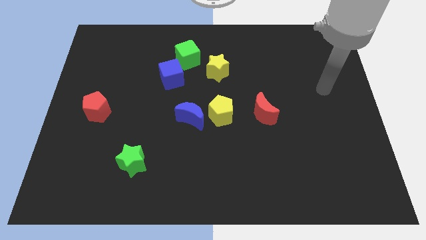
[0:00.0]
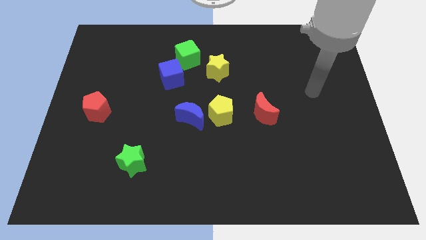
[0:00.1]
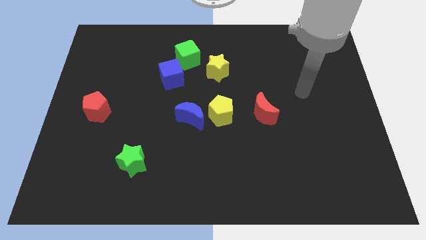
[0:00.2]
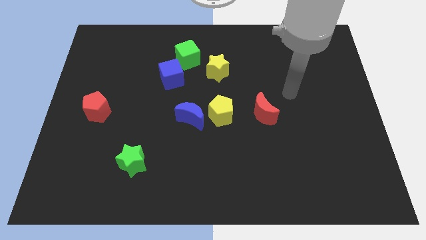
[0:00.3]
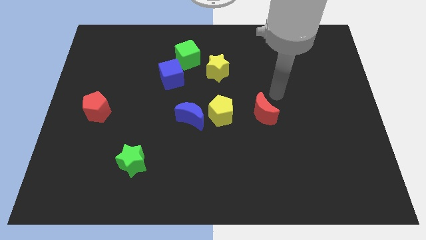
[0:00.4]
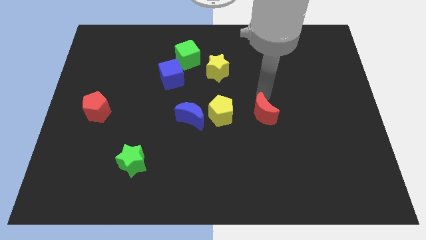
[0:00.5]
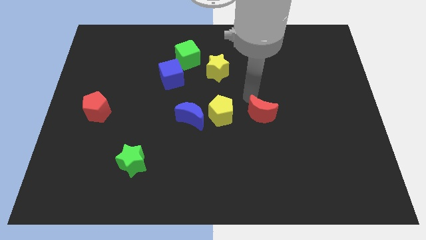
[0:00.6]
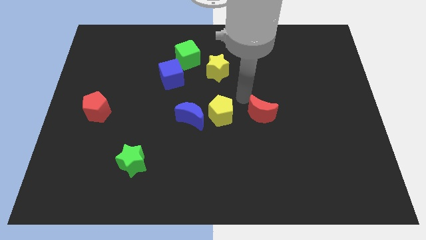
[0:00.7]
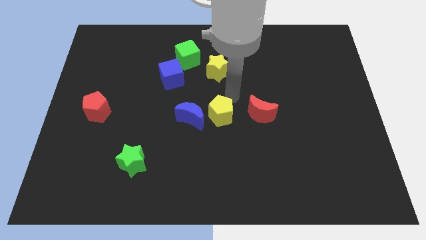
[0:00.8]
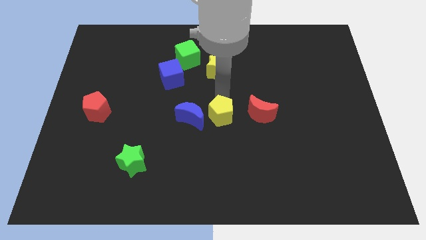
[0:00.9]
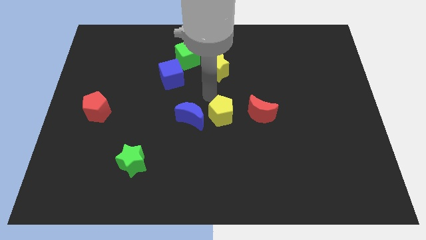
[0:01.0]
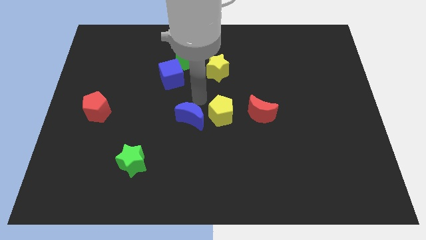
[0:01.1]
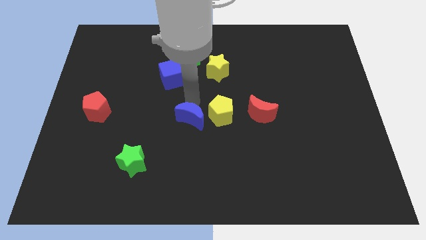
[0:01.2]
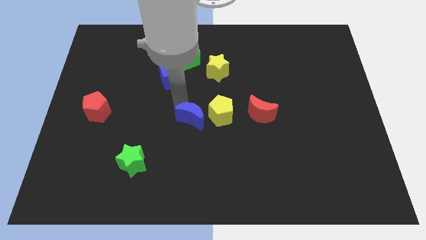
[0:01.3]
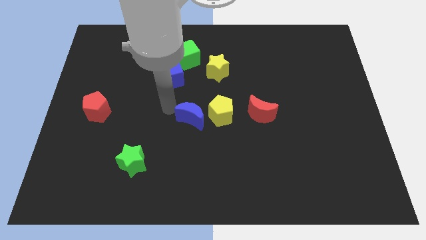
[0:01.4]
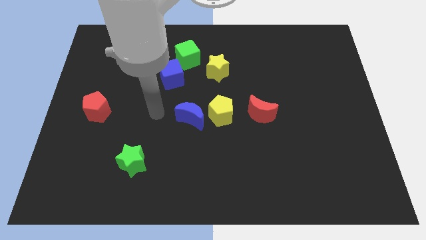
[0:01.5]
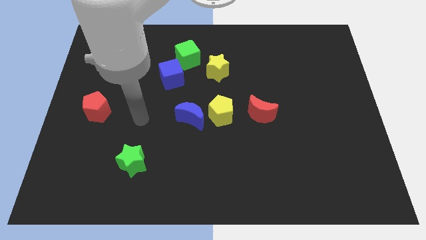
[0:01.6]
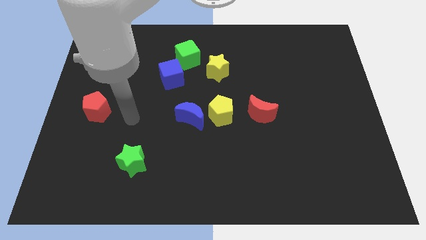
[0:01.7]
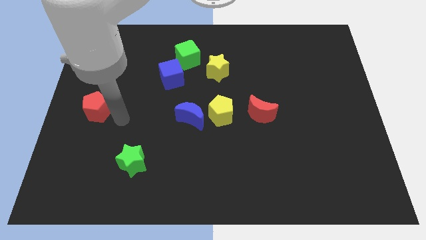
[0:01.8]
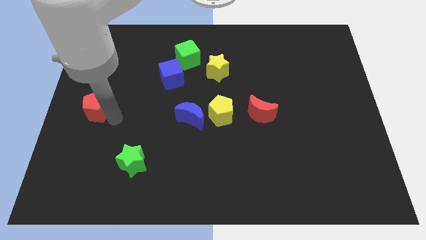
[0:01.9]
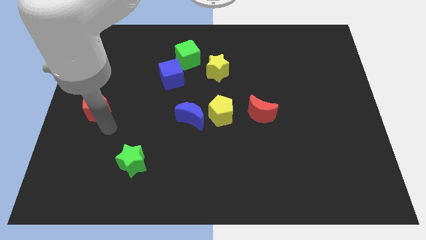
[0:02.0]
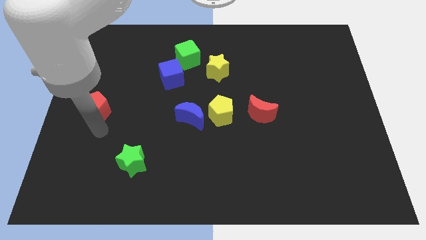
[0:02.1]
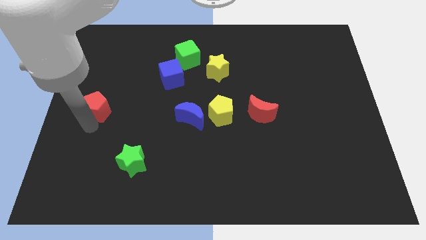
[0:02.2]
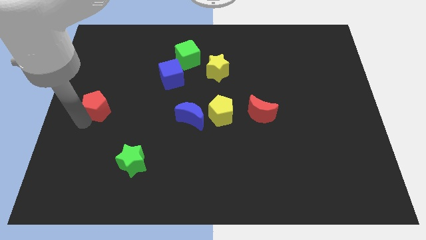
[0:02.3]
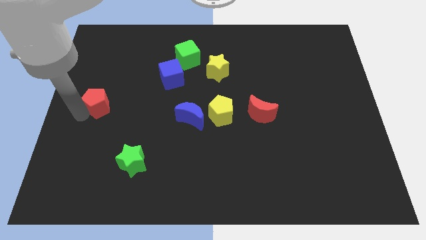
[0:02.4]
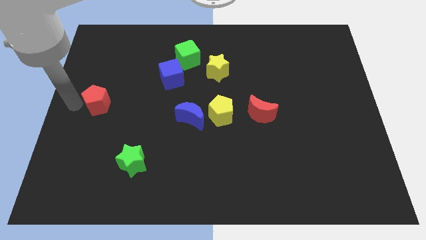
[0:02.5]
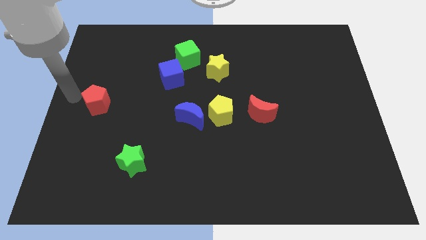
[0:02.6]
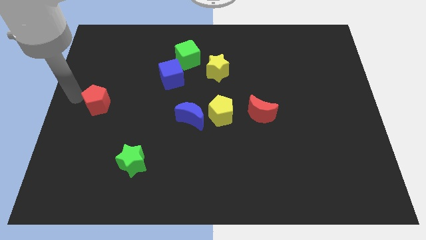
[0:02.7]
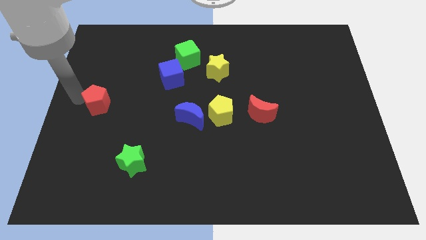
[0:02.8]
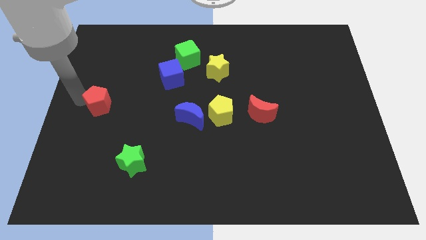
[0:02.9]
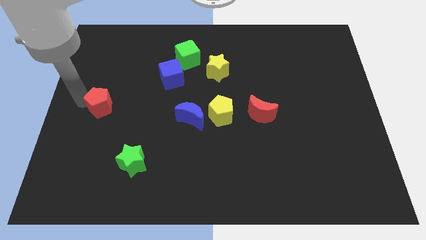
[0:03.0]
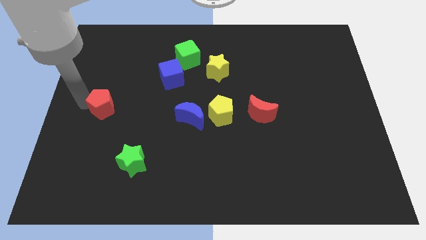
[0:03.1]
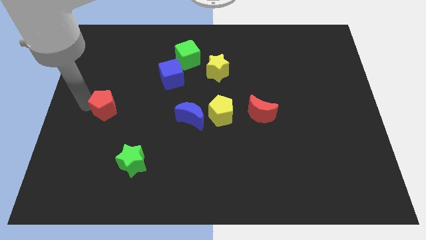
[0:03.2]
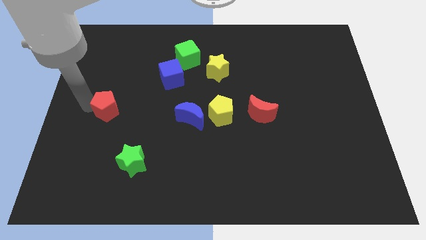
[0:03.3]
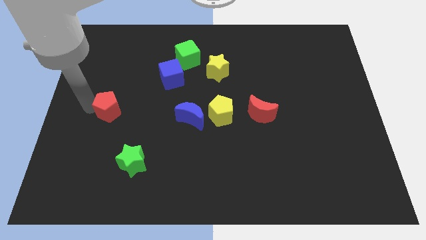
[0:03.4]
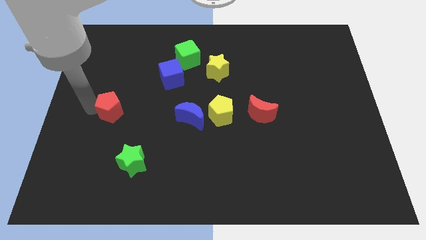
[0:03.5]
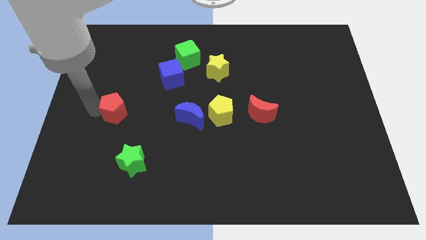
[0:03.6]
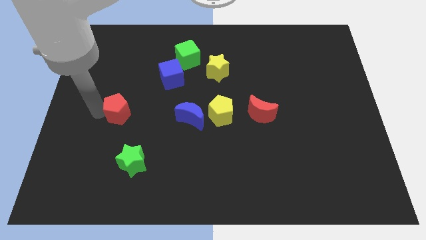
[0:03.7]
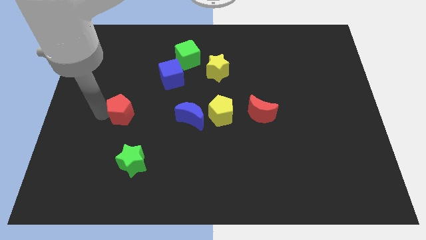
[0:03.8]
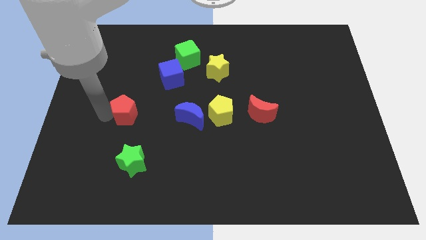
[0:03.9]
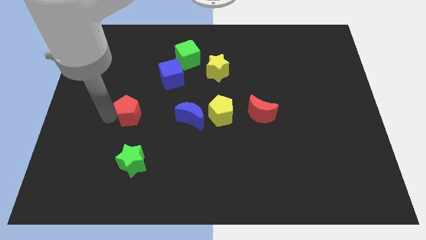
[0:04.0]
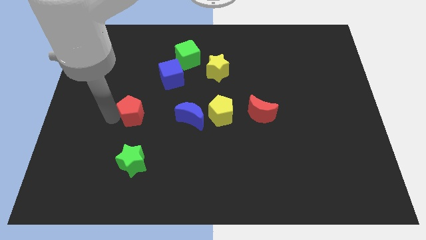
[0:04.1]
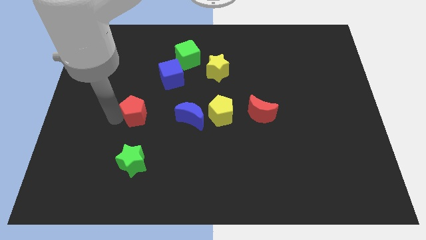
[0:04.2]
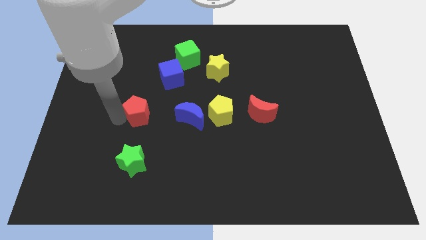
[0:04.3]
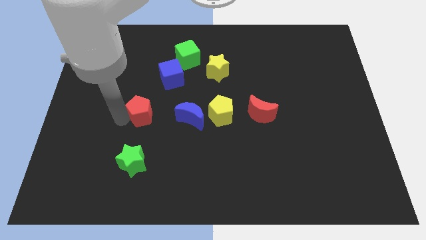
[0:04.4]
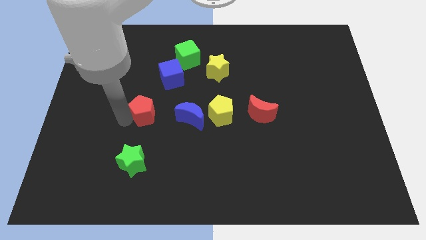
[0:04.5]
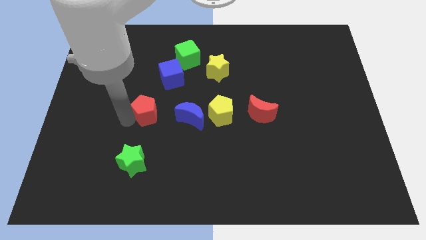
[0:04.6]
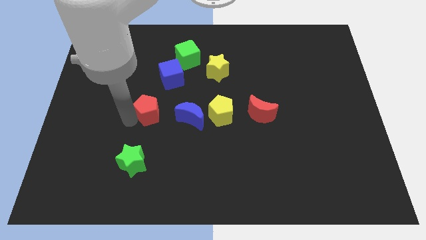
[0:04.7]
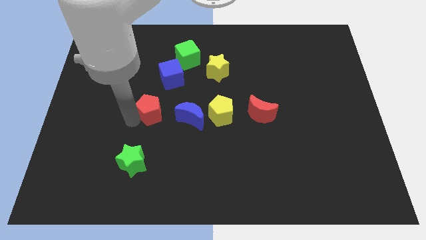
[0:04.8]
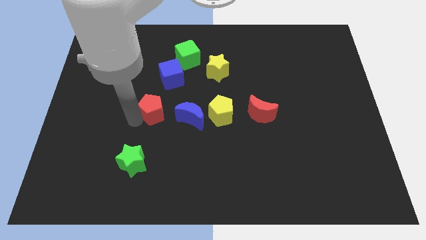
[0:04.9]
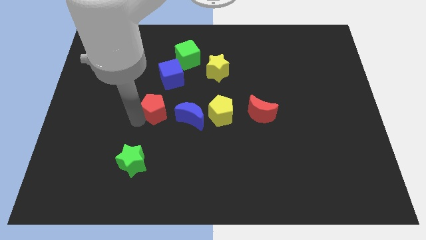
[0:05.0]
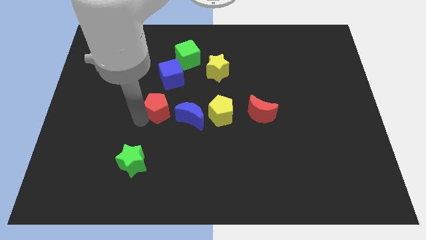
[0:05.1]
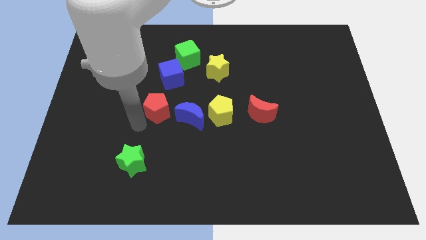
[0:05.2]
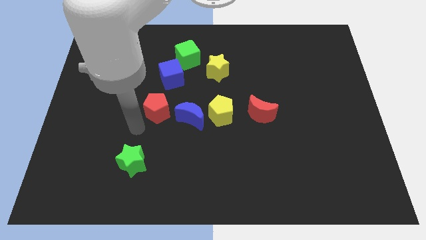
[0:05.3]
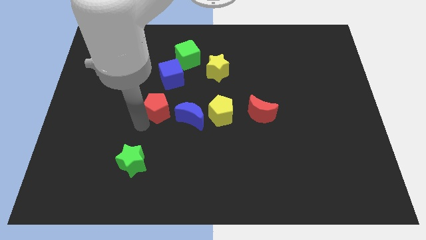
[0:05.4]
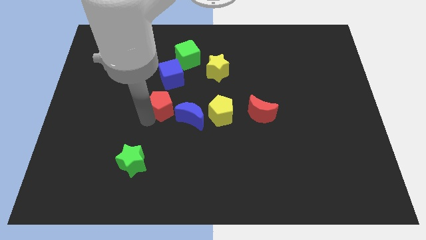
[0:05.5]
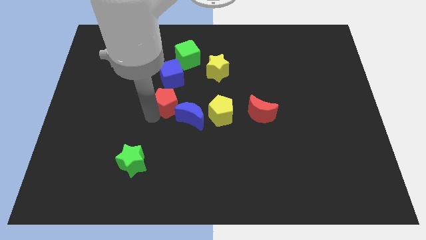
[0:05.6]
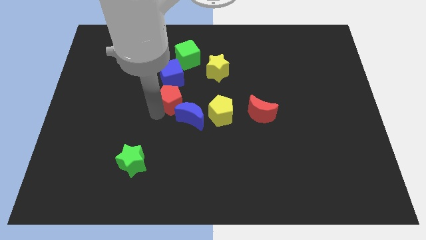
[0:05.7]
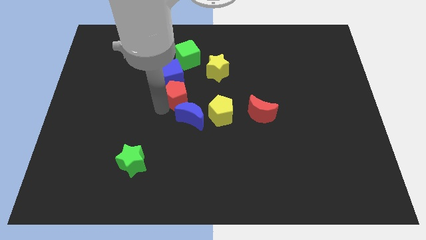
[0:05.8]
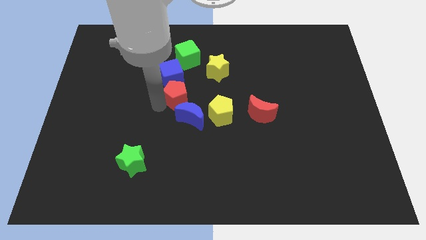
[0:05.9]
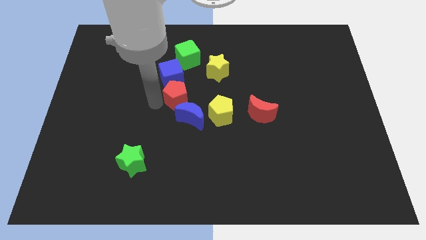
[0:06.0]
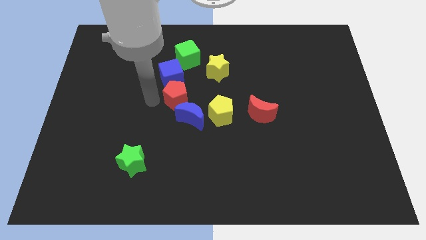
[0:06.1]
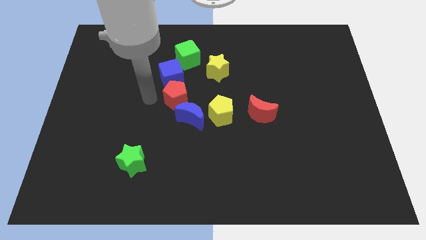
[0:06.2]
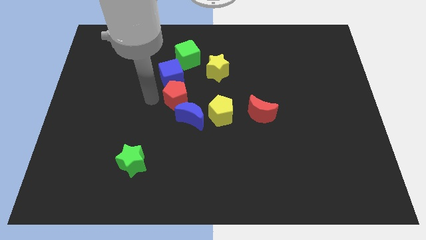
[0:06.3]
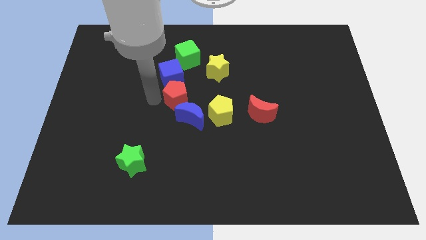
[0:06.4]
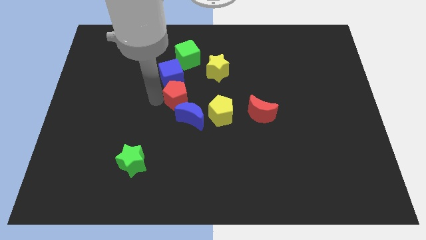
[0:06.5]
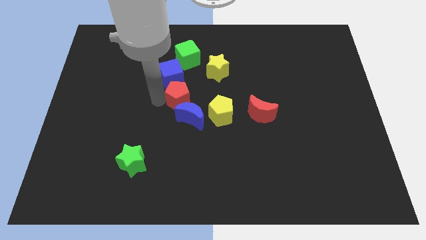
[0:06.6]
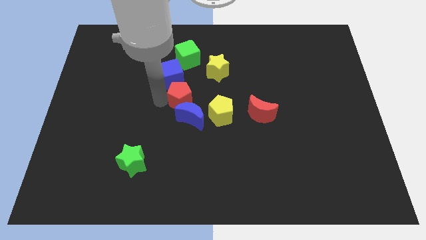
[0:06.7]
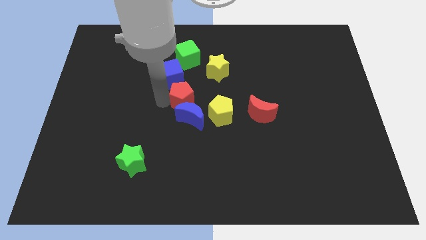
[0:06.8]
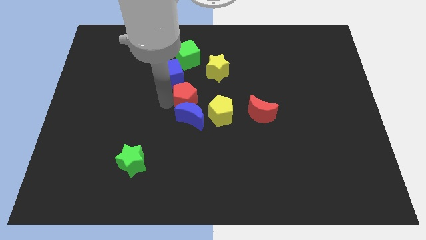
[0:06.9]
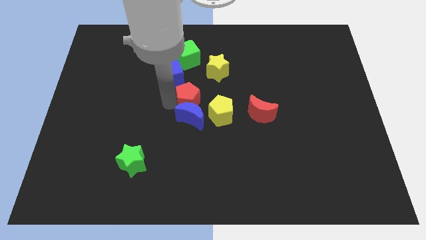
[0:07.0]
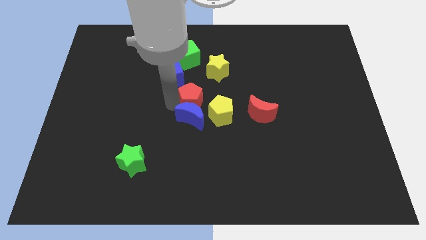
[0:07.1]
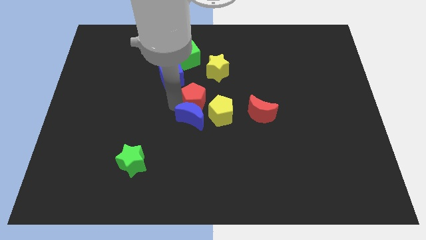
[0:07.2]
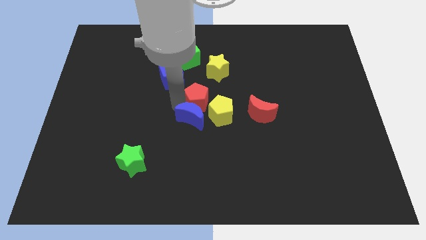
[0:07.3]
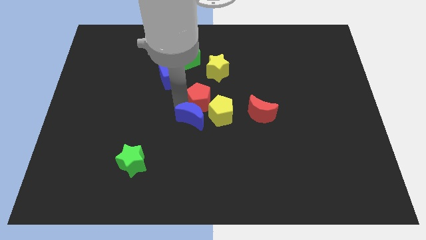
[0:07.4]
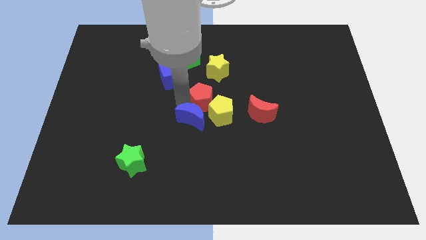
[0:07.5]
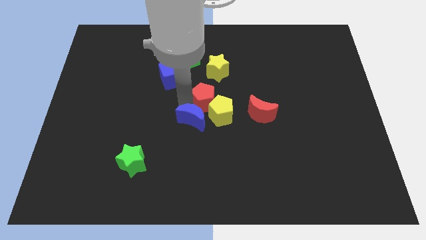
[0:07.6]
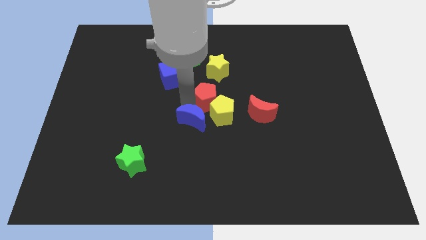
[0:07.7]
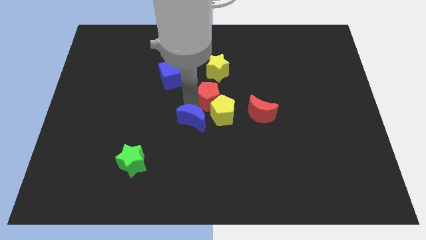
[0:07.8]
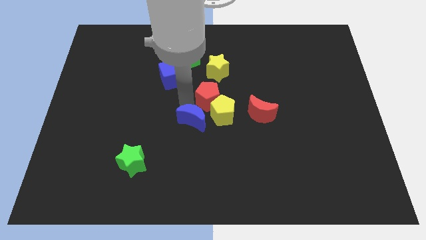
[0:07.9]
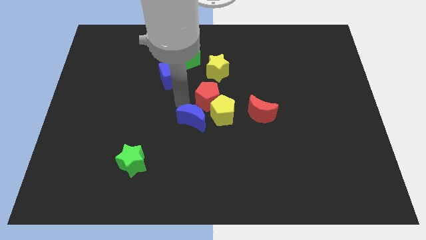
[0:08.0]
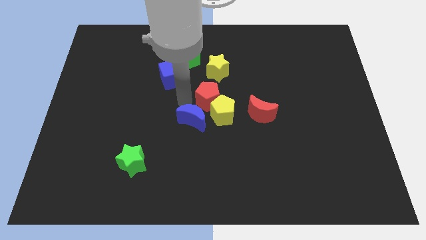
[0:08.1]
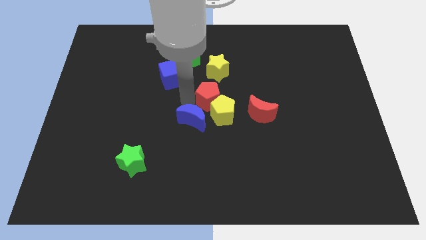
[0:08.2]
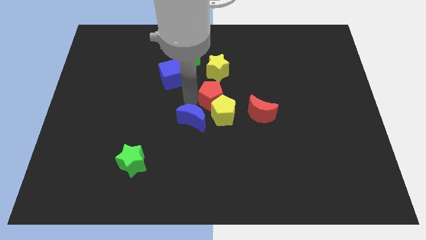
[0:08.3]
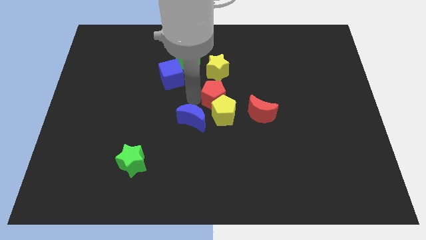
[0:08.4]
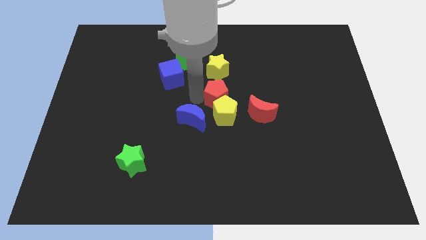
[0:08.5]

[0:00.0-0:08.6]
slide the red pentagon to the top left of the red moon
